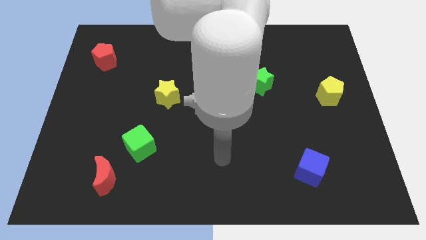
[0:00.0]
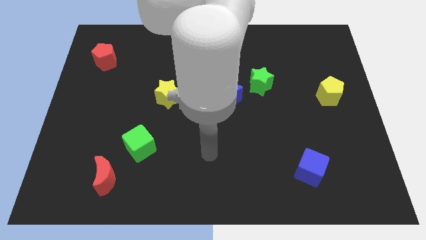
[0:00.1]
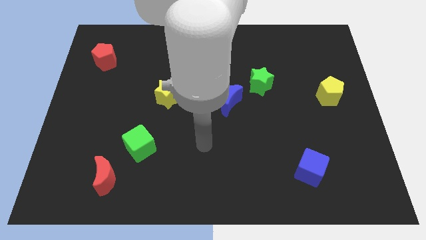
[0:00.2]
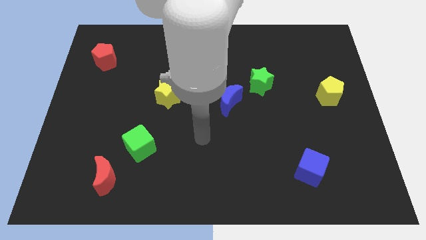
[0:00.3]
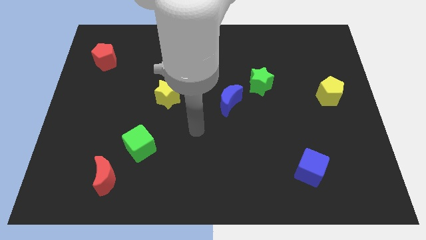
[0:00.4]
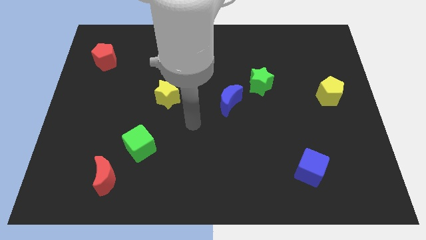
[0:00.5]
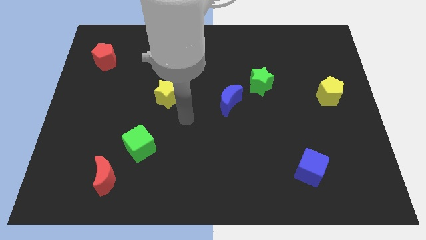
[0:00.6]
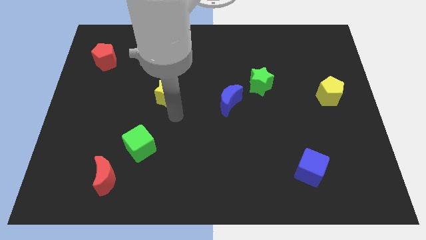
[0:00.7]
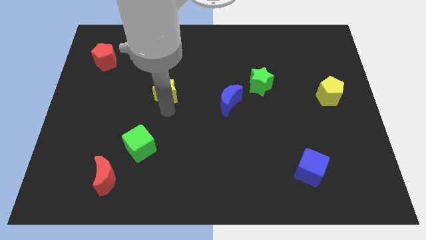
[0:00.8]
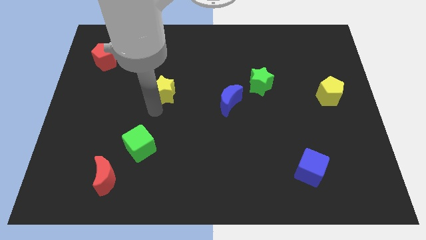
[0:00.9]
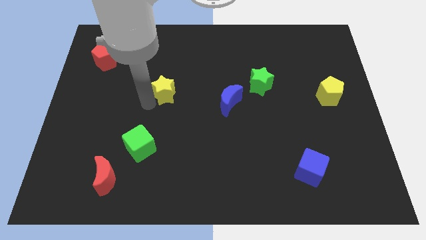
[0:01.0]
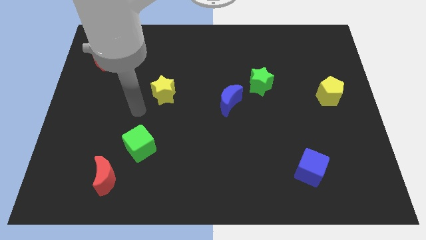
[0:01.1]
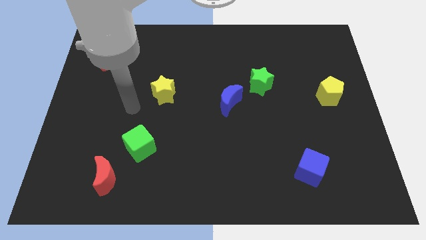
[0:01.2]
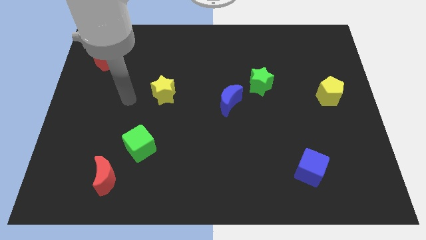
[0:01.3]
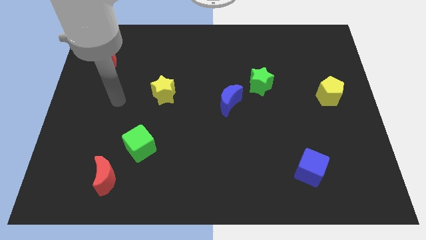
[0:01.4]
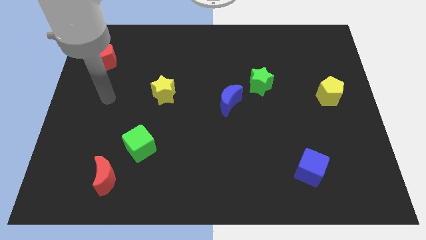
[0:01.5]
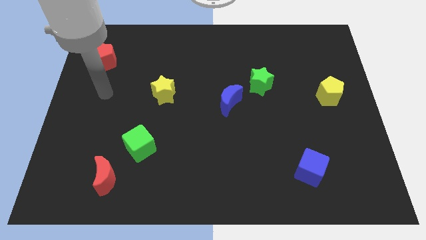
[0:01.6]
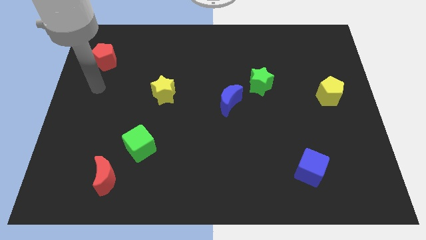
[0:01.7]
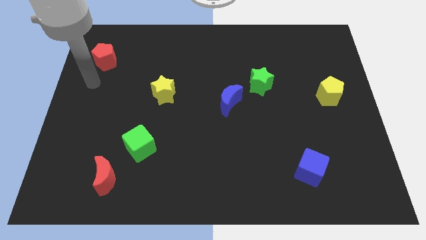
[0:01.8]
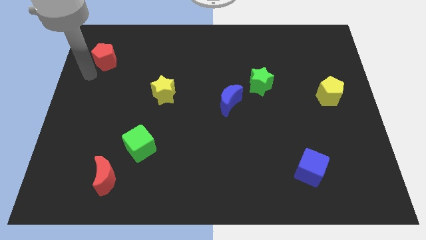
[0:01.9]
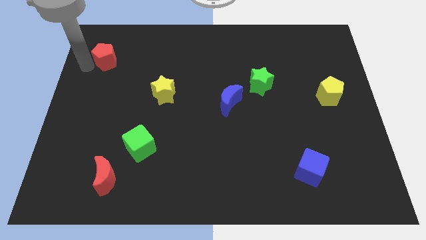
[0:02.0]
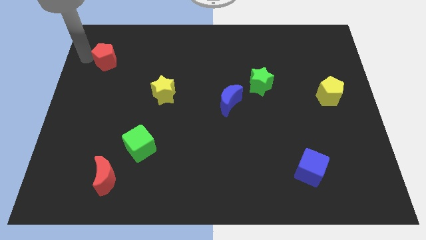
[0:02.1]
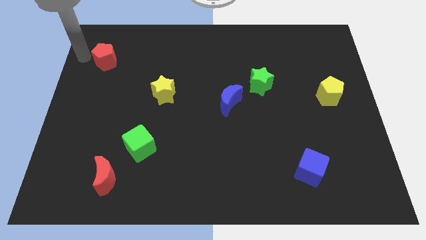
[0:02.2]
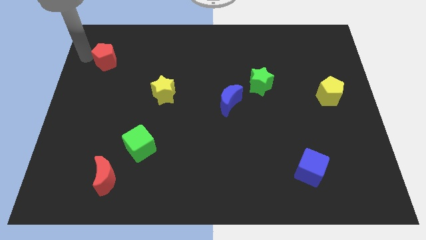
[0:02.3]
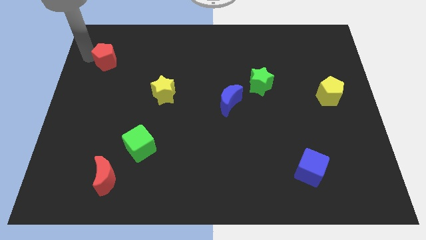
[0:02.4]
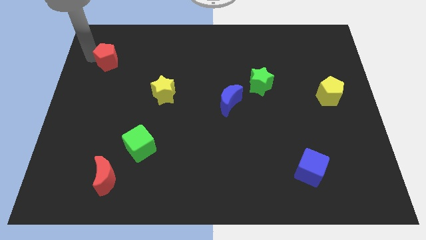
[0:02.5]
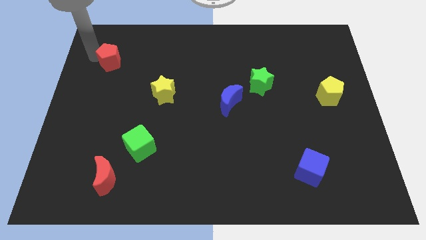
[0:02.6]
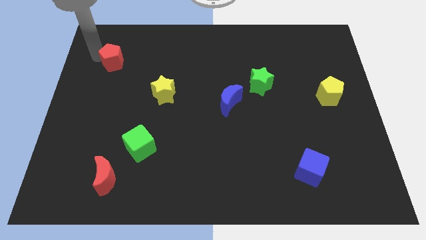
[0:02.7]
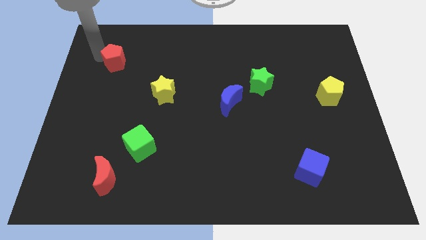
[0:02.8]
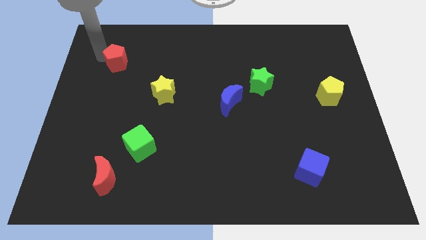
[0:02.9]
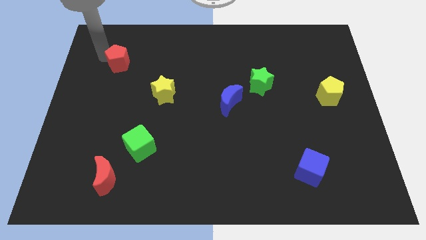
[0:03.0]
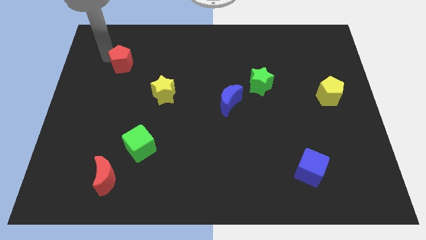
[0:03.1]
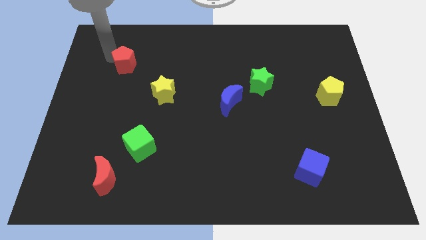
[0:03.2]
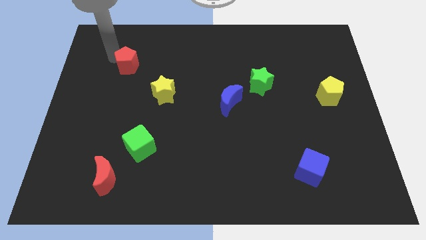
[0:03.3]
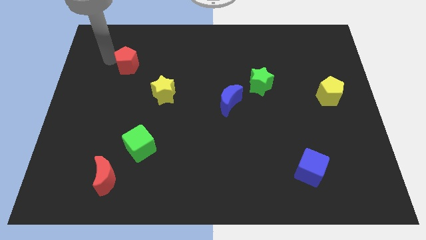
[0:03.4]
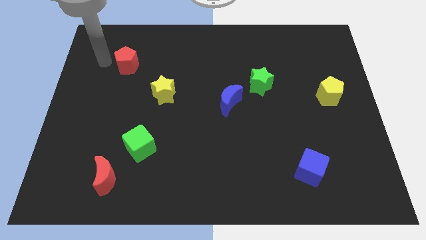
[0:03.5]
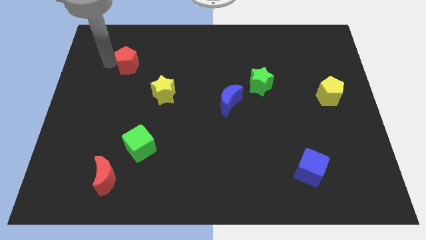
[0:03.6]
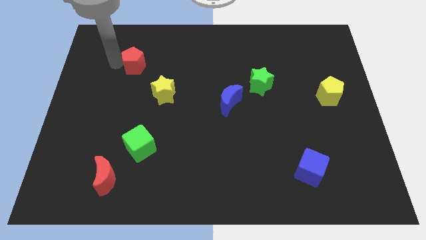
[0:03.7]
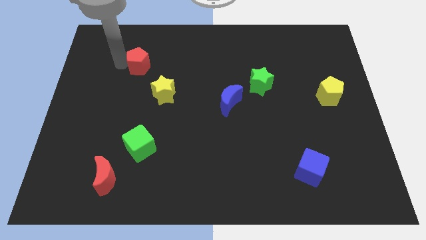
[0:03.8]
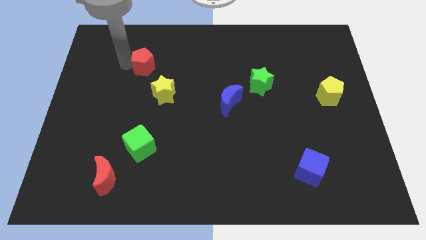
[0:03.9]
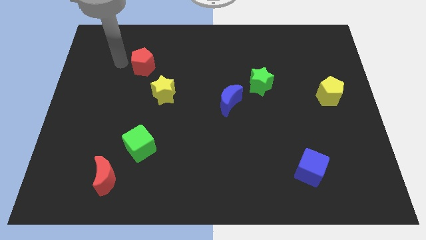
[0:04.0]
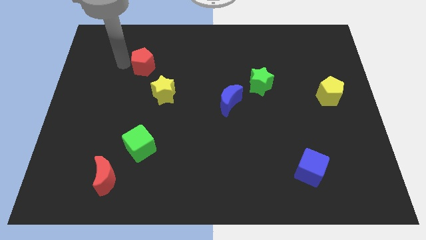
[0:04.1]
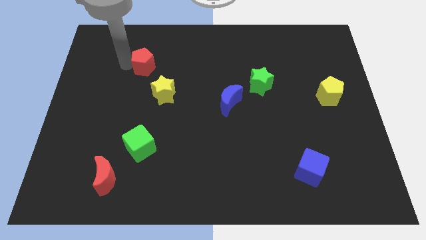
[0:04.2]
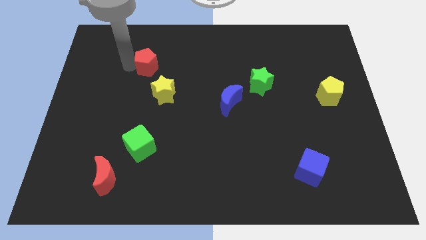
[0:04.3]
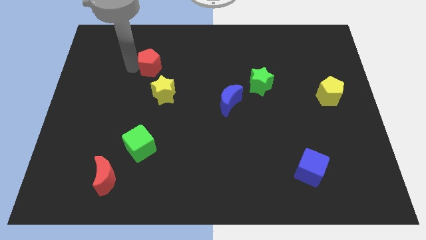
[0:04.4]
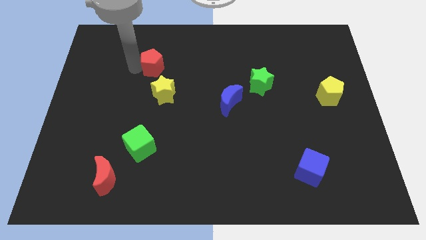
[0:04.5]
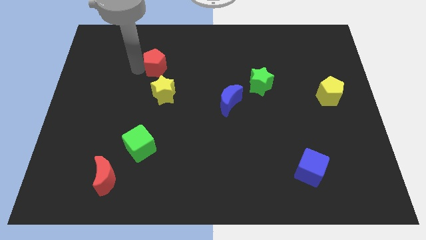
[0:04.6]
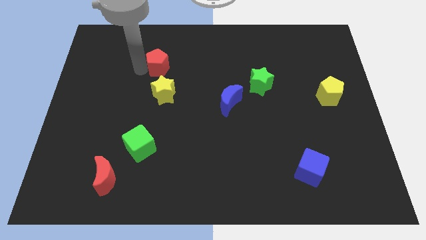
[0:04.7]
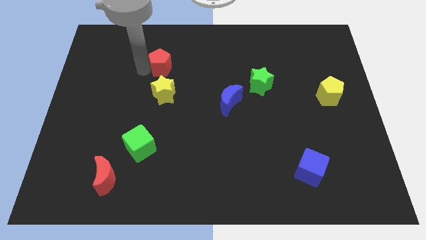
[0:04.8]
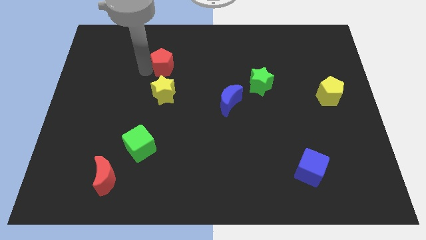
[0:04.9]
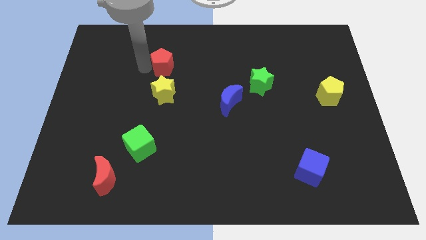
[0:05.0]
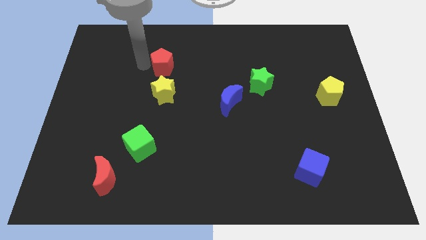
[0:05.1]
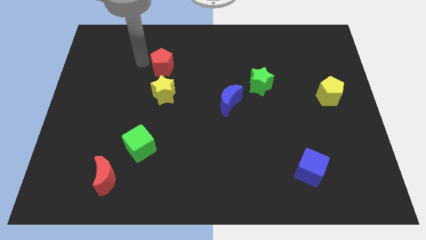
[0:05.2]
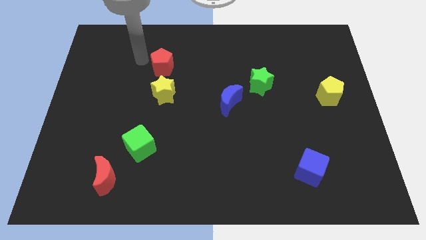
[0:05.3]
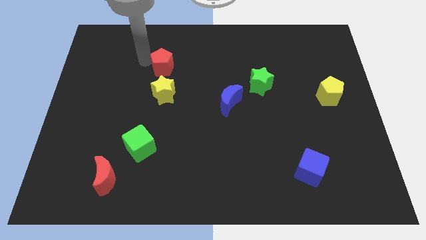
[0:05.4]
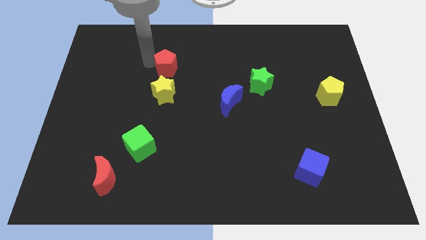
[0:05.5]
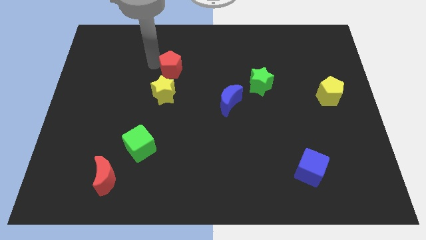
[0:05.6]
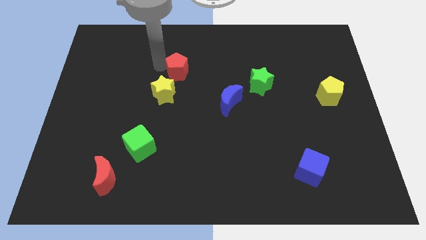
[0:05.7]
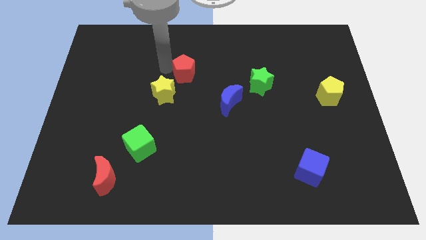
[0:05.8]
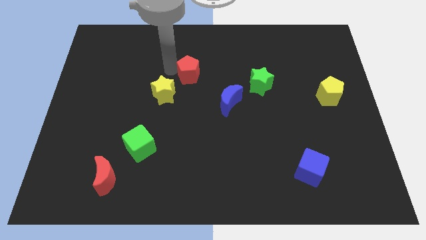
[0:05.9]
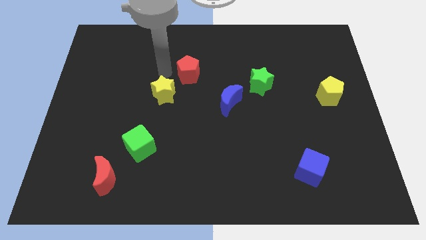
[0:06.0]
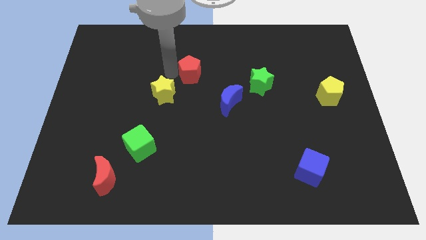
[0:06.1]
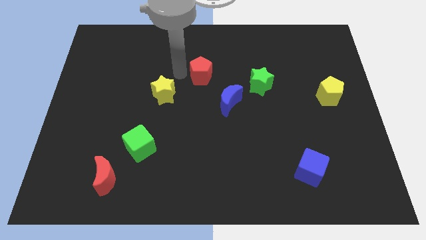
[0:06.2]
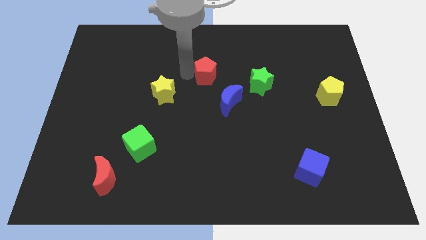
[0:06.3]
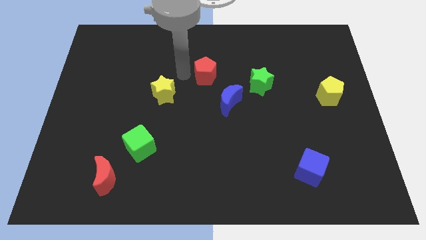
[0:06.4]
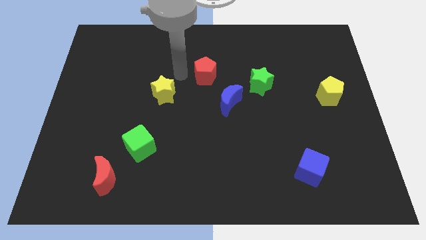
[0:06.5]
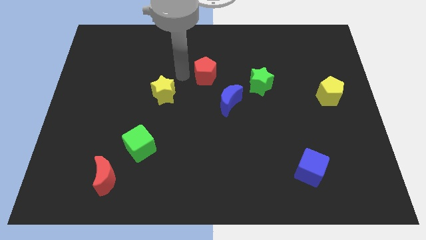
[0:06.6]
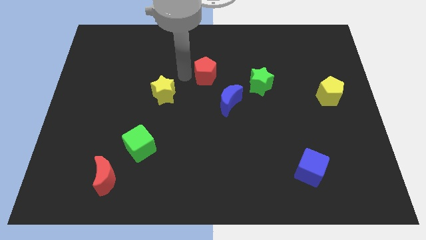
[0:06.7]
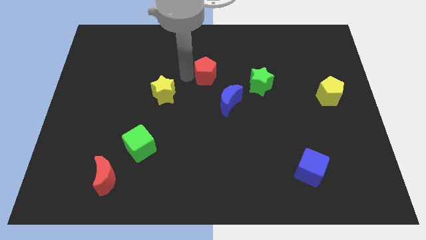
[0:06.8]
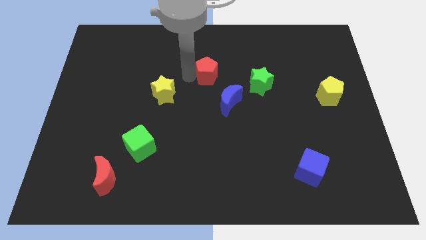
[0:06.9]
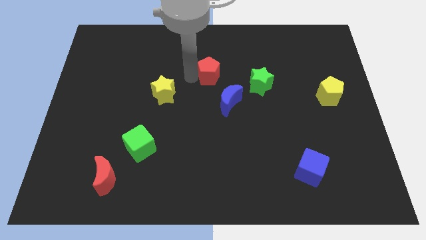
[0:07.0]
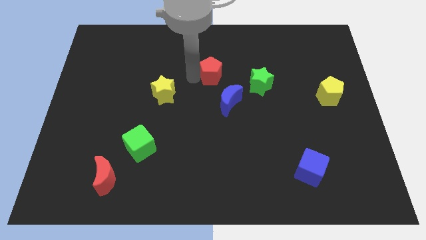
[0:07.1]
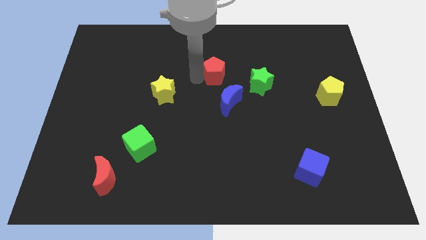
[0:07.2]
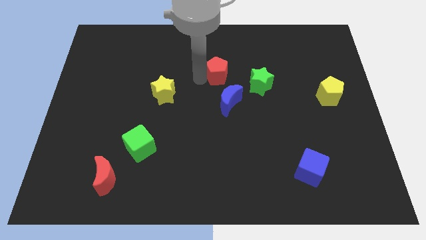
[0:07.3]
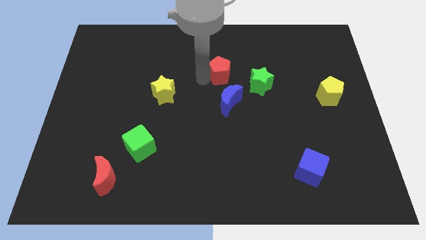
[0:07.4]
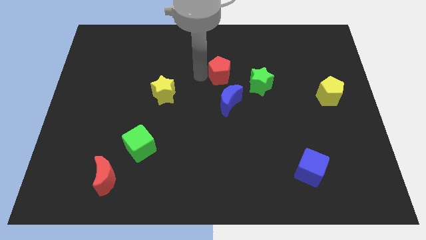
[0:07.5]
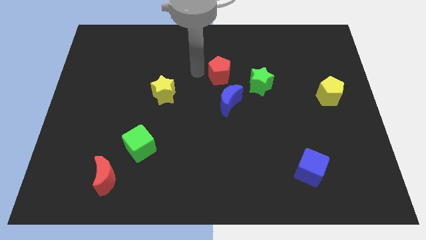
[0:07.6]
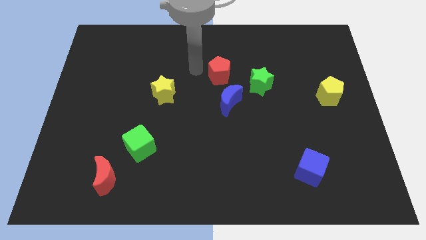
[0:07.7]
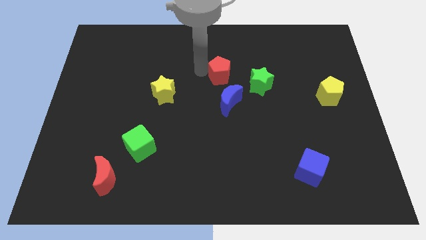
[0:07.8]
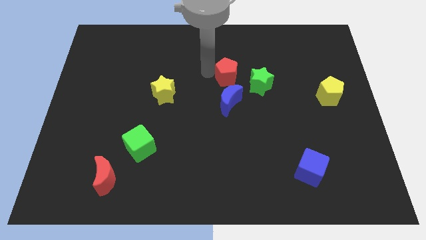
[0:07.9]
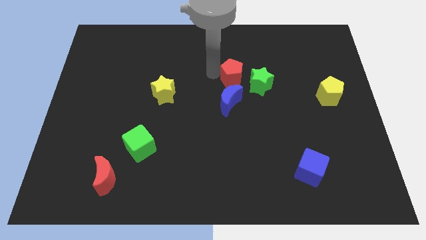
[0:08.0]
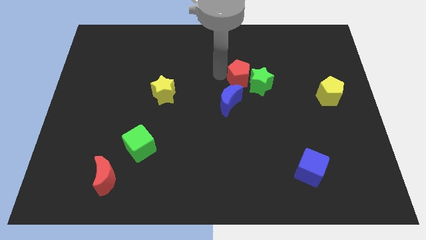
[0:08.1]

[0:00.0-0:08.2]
put the red pentagon to the green star
